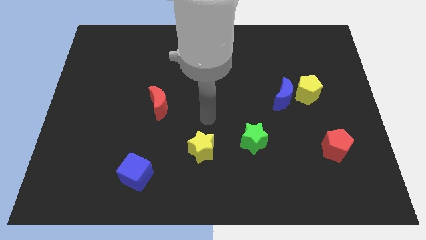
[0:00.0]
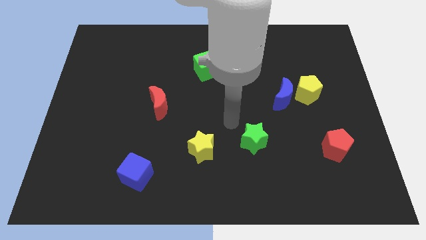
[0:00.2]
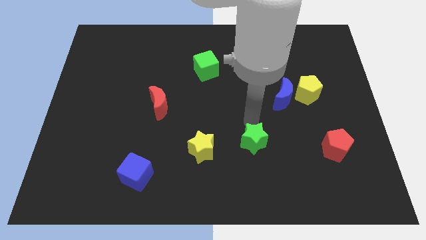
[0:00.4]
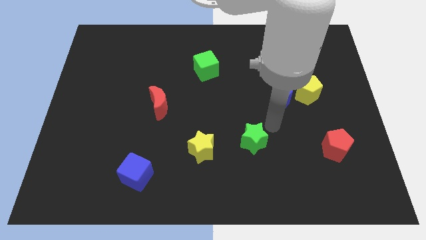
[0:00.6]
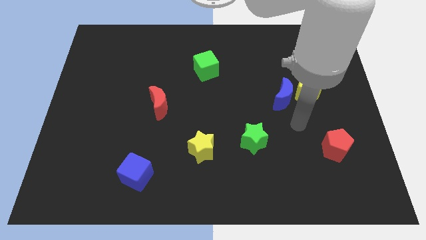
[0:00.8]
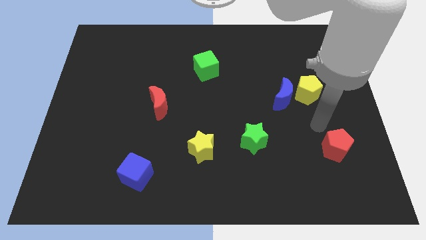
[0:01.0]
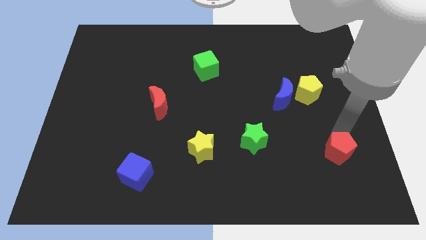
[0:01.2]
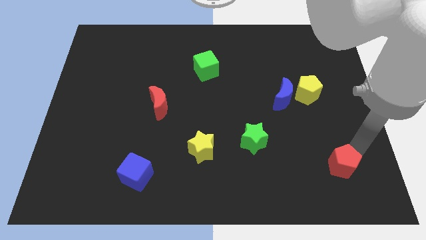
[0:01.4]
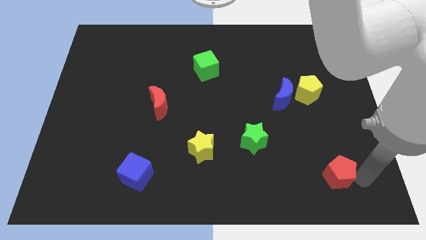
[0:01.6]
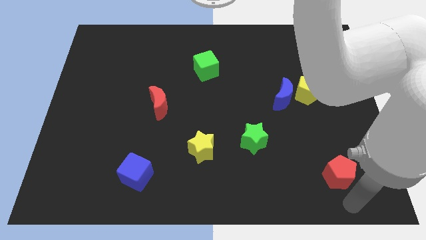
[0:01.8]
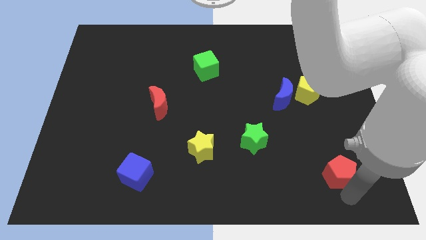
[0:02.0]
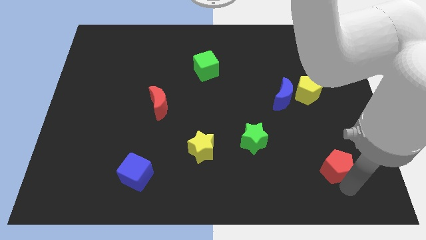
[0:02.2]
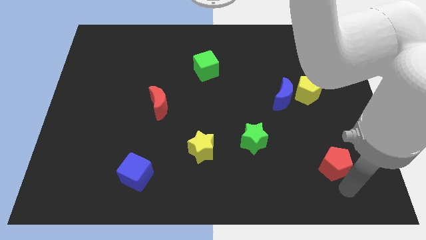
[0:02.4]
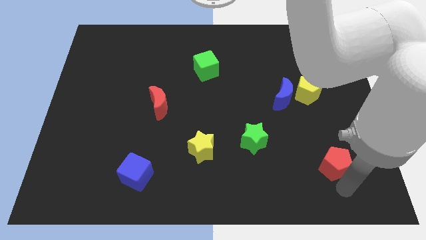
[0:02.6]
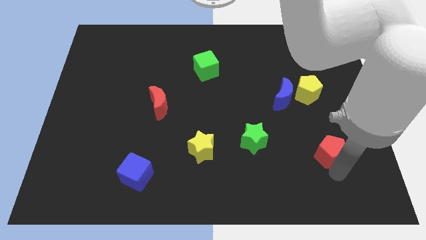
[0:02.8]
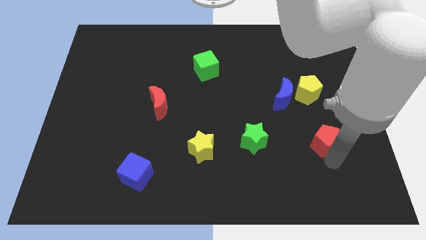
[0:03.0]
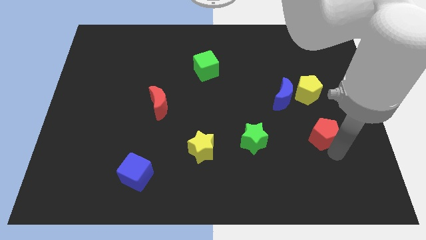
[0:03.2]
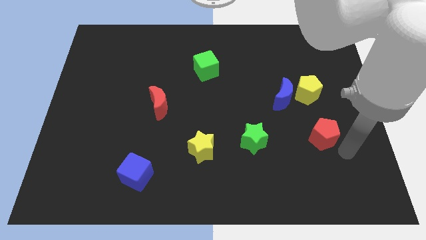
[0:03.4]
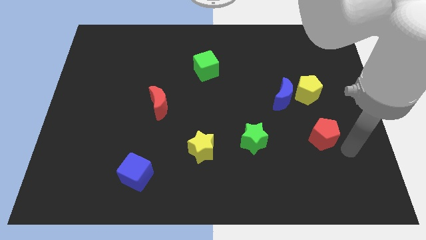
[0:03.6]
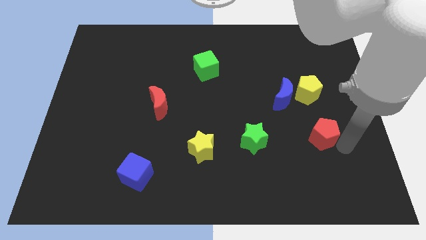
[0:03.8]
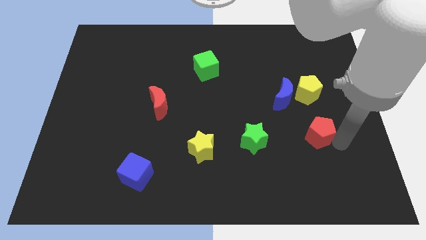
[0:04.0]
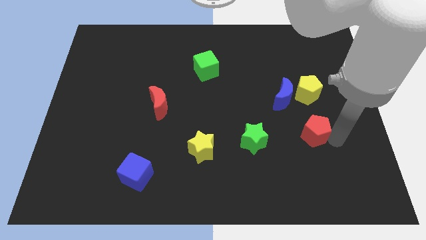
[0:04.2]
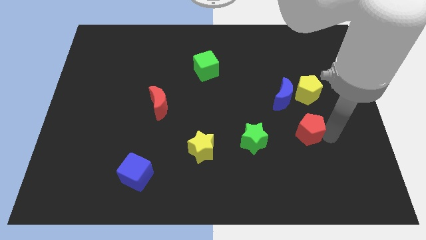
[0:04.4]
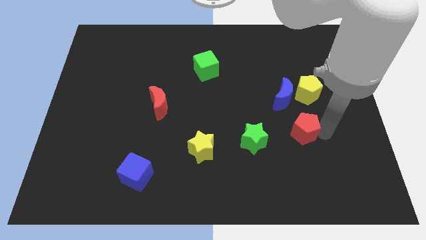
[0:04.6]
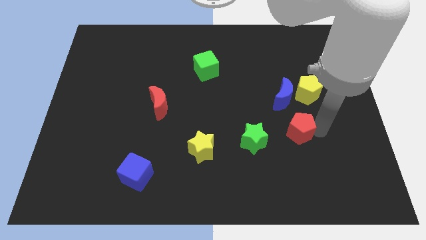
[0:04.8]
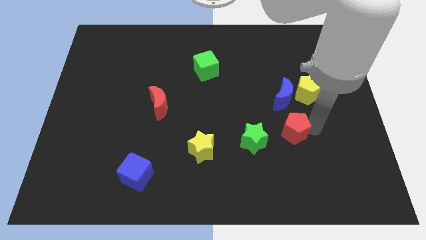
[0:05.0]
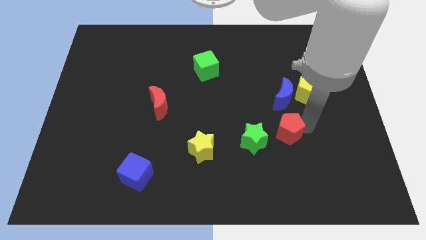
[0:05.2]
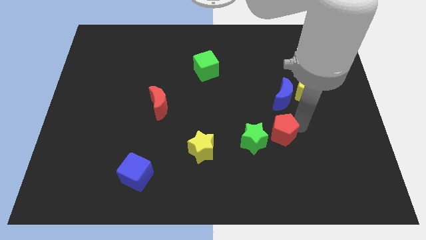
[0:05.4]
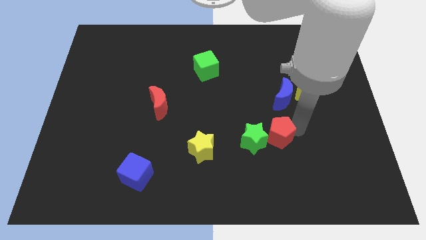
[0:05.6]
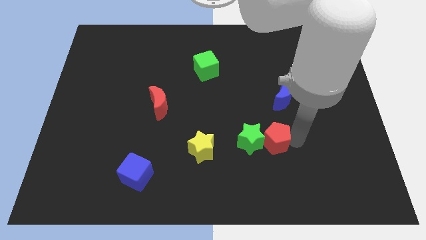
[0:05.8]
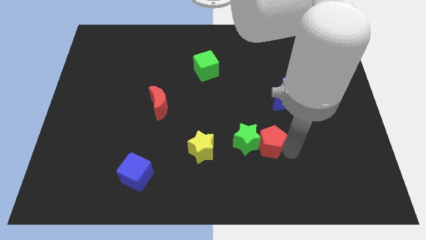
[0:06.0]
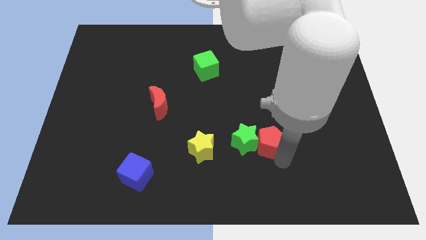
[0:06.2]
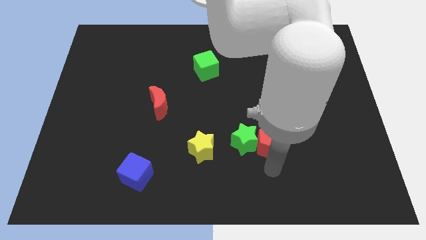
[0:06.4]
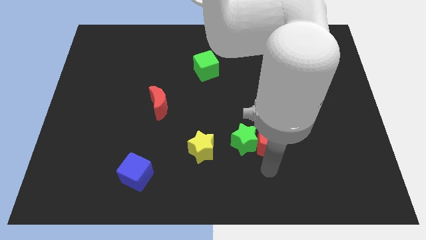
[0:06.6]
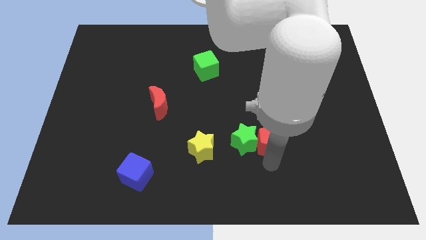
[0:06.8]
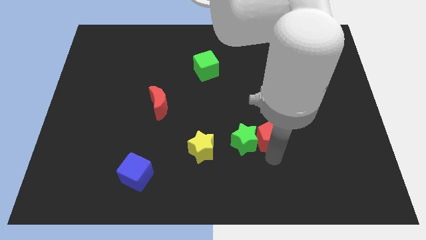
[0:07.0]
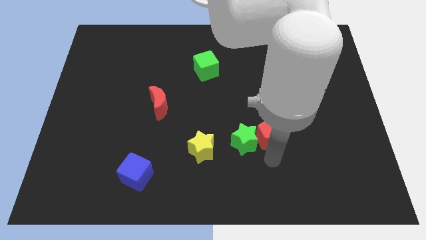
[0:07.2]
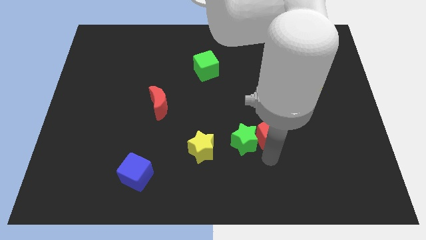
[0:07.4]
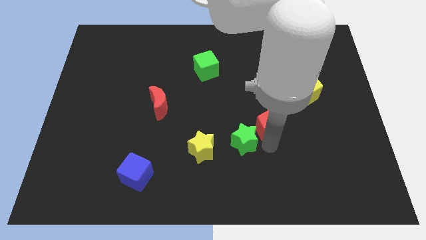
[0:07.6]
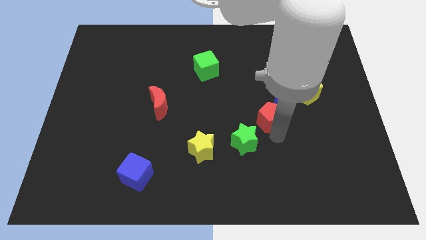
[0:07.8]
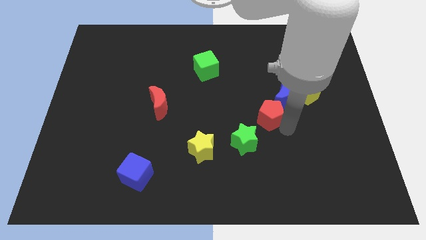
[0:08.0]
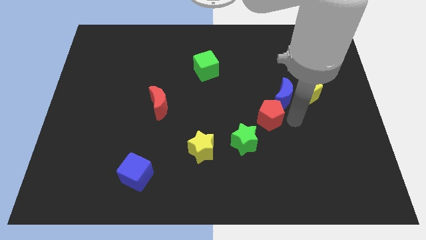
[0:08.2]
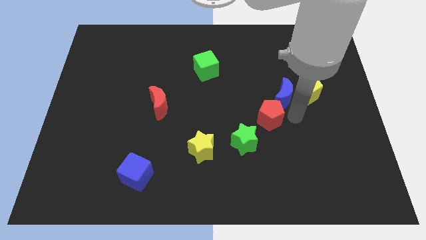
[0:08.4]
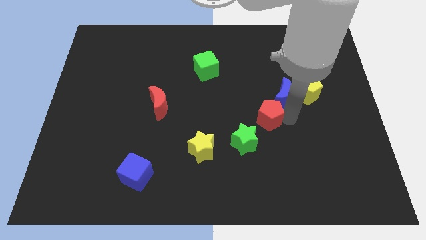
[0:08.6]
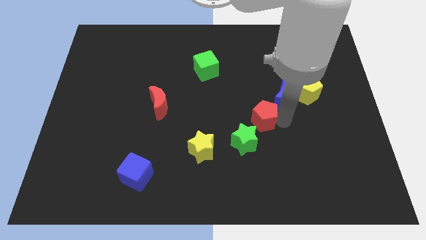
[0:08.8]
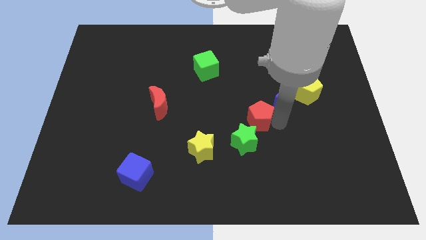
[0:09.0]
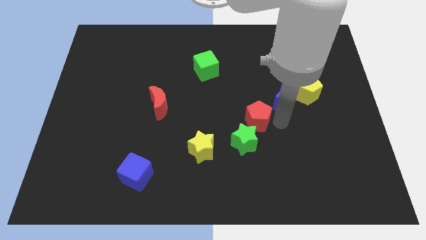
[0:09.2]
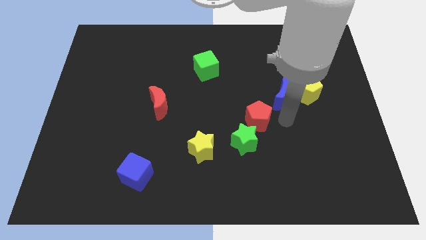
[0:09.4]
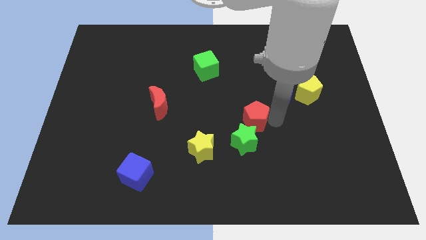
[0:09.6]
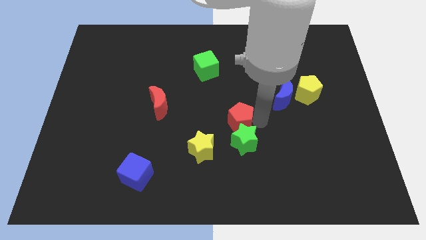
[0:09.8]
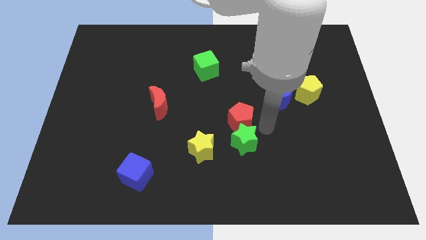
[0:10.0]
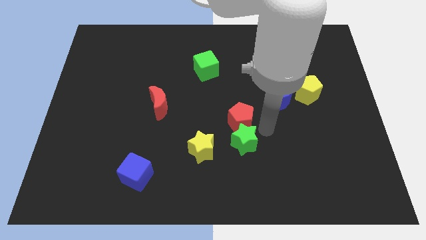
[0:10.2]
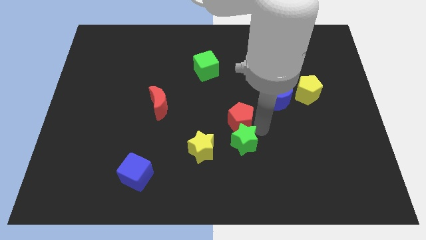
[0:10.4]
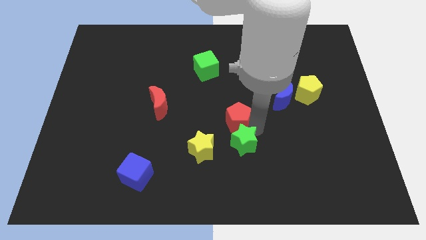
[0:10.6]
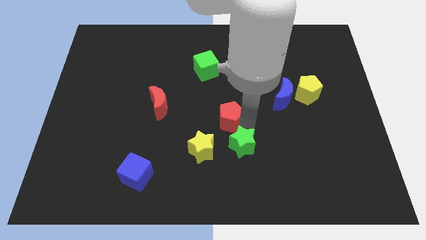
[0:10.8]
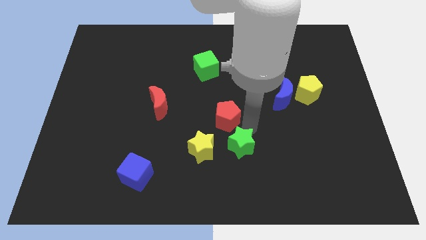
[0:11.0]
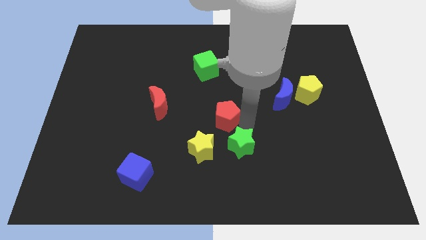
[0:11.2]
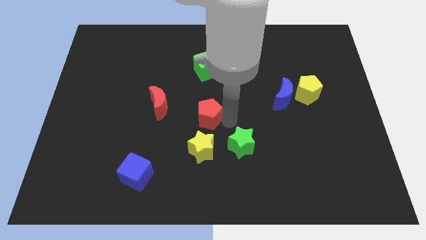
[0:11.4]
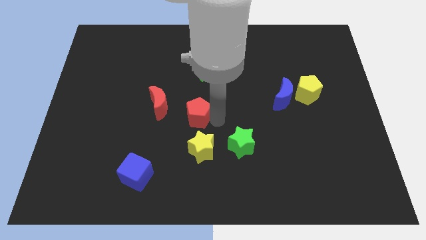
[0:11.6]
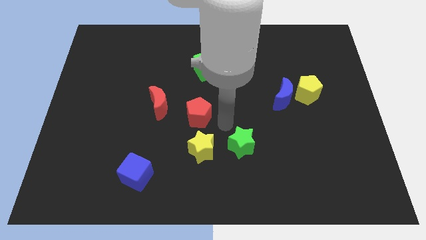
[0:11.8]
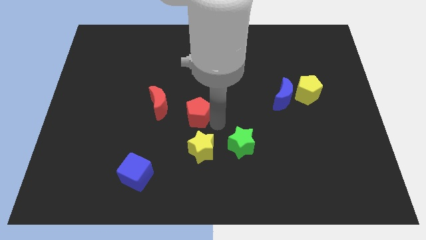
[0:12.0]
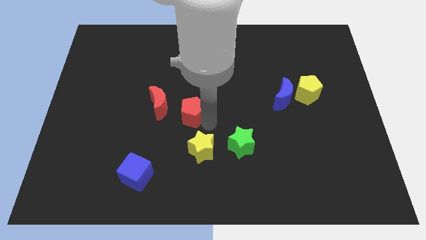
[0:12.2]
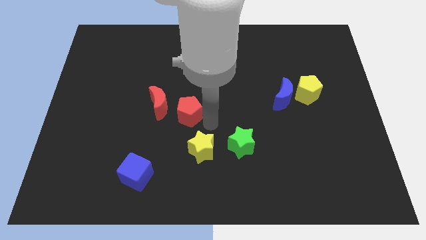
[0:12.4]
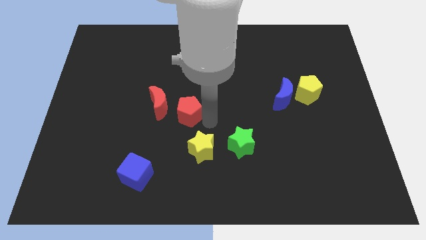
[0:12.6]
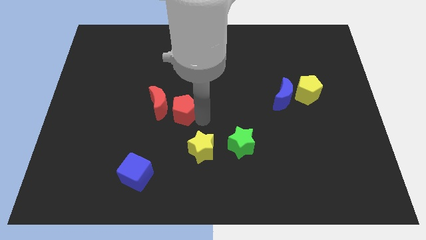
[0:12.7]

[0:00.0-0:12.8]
slide the red pentagon next to the red moon

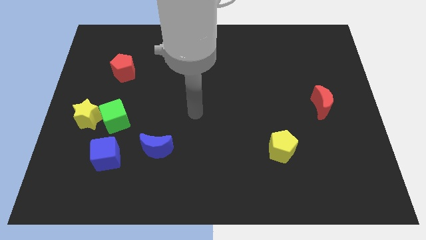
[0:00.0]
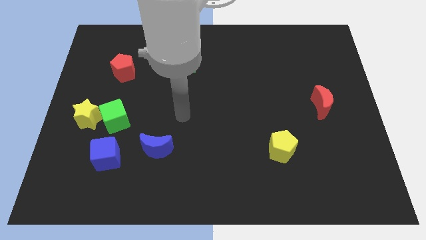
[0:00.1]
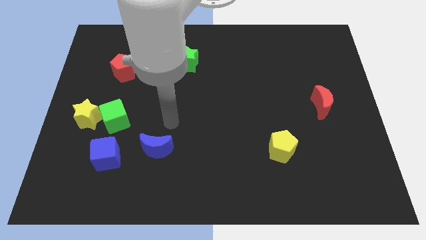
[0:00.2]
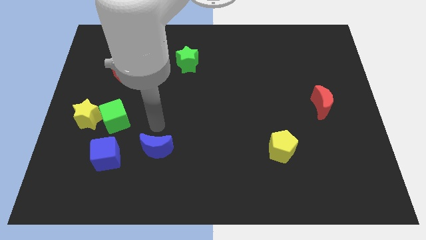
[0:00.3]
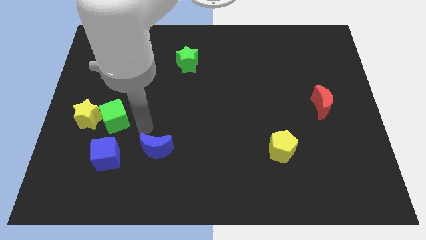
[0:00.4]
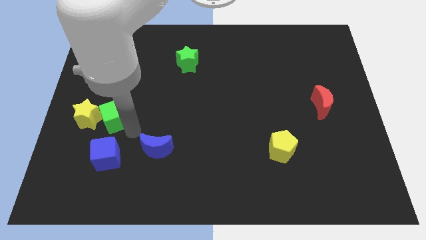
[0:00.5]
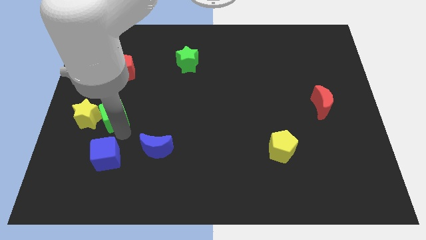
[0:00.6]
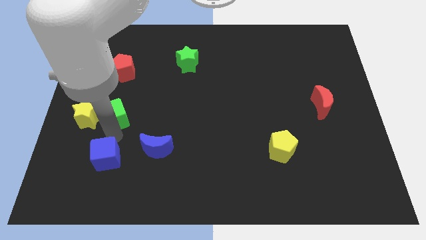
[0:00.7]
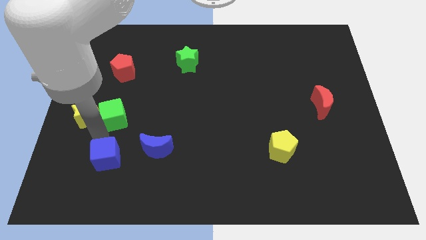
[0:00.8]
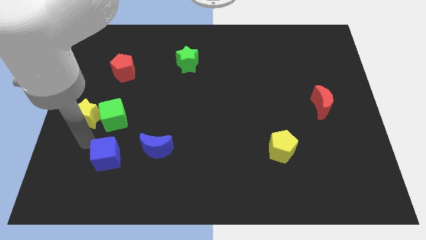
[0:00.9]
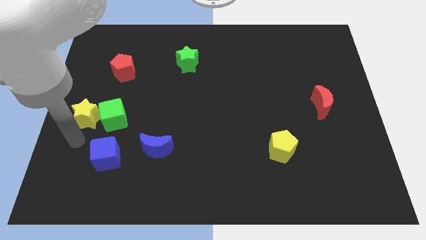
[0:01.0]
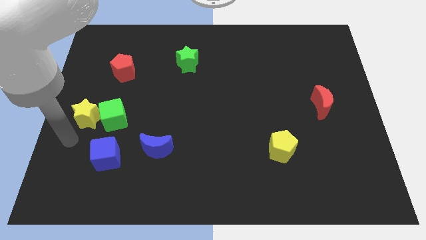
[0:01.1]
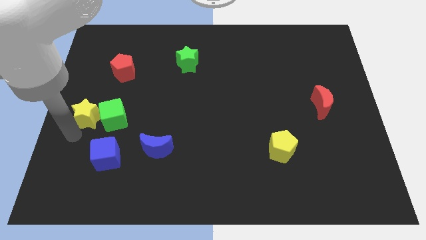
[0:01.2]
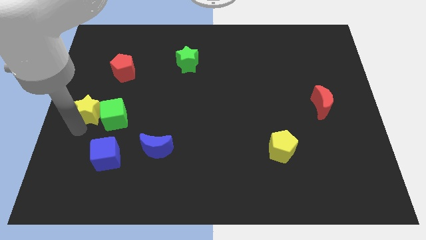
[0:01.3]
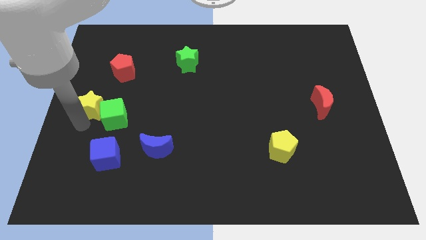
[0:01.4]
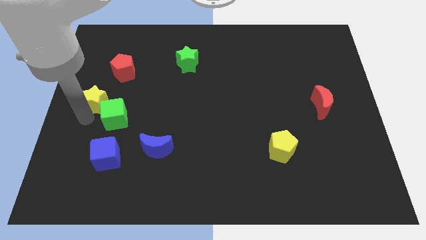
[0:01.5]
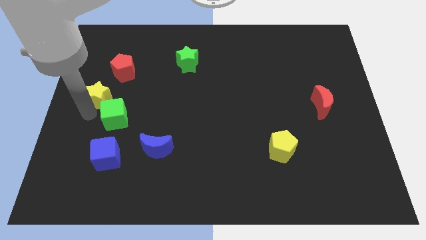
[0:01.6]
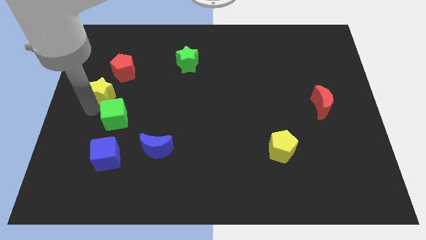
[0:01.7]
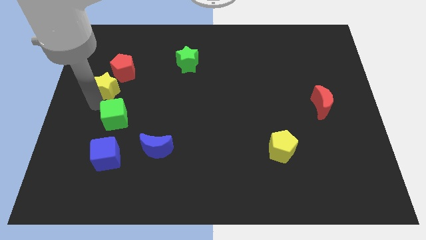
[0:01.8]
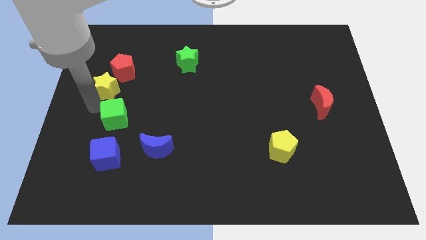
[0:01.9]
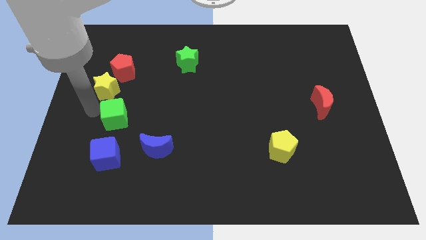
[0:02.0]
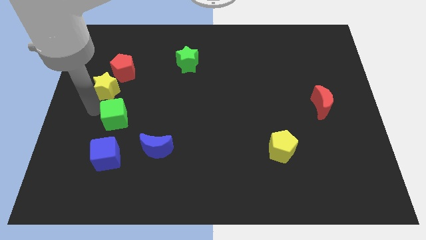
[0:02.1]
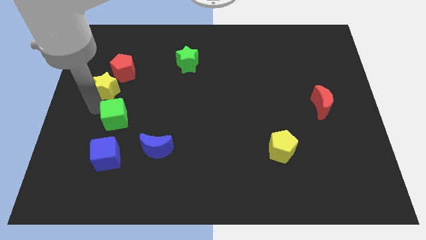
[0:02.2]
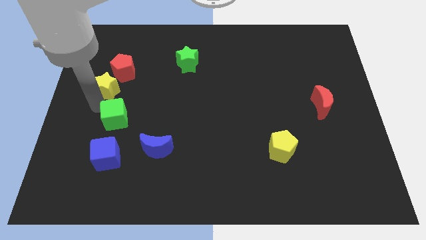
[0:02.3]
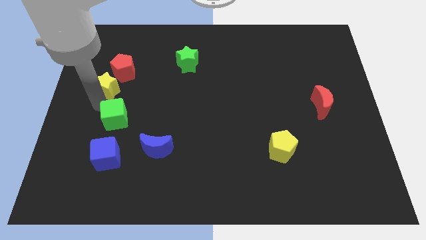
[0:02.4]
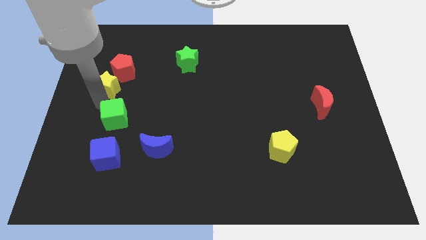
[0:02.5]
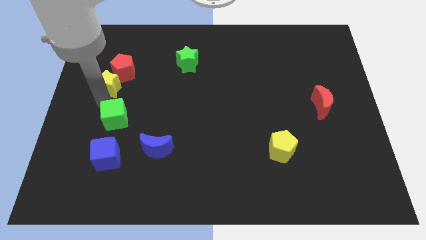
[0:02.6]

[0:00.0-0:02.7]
push the yellow star next to the red pentagon
